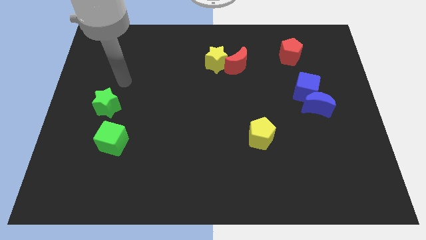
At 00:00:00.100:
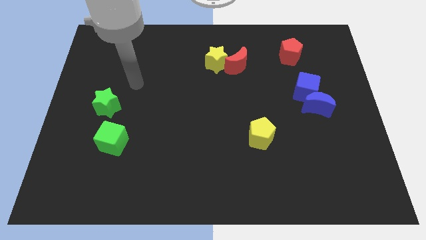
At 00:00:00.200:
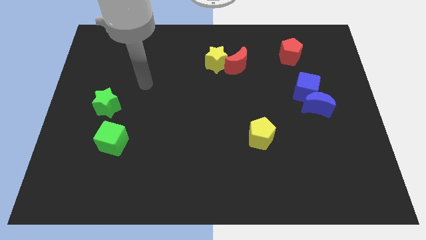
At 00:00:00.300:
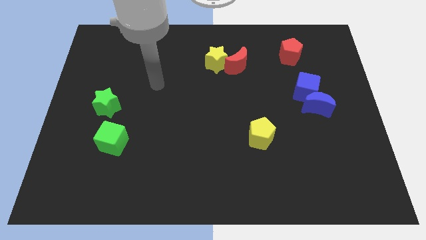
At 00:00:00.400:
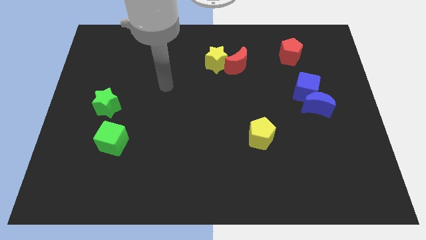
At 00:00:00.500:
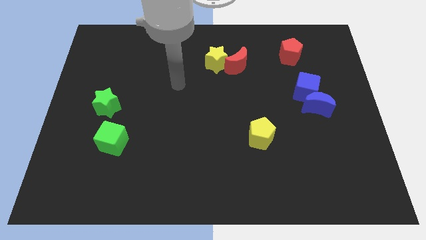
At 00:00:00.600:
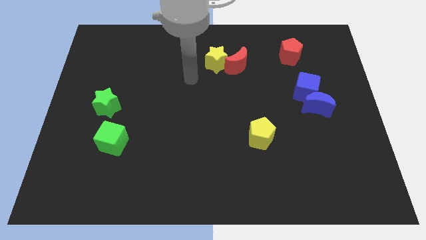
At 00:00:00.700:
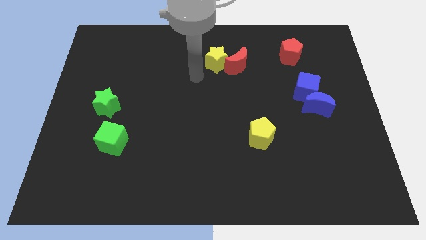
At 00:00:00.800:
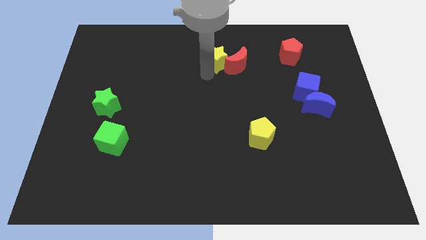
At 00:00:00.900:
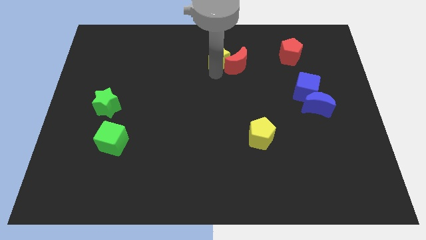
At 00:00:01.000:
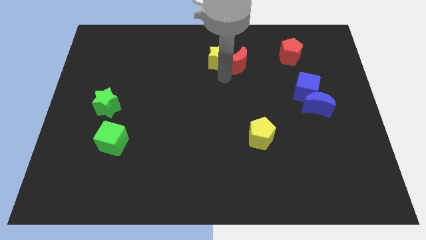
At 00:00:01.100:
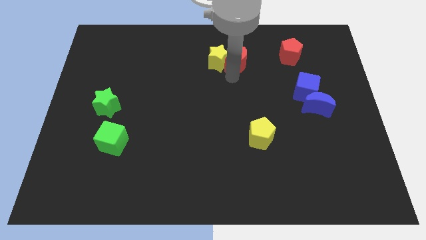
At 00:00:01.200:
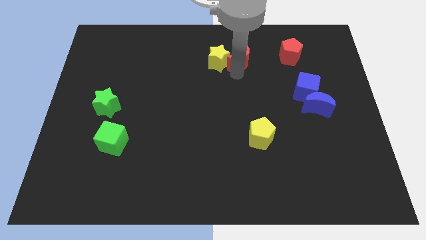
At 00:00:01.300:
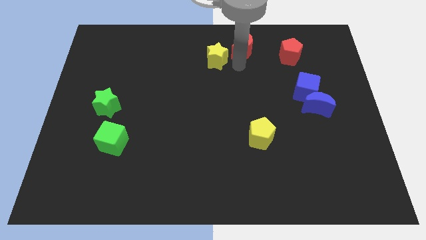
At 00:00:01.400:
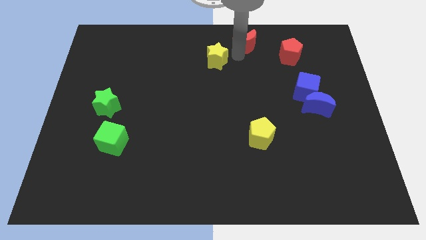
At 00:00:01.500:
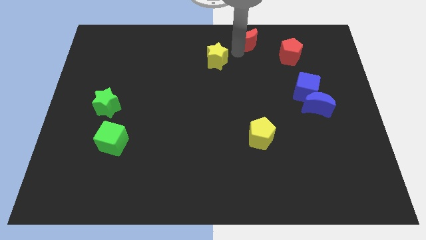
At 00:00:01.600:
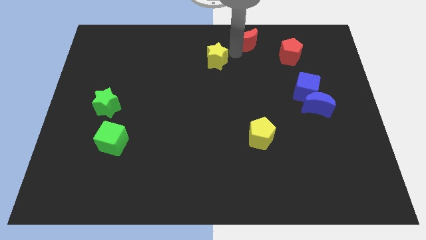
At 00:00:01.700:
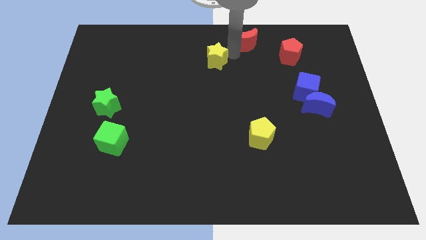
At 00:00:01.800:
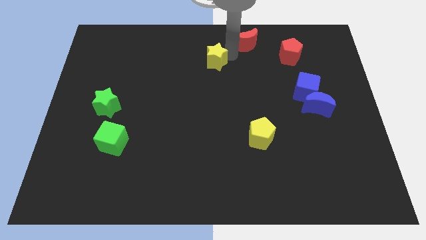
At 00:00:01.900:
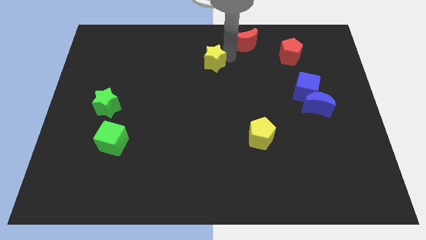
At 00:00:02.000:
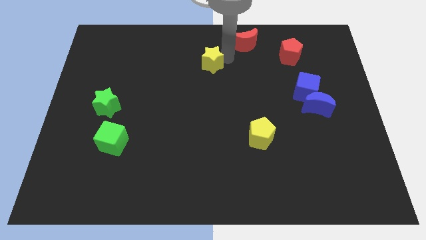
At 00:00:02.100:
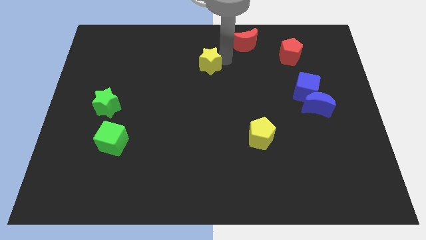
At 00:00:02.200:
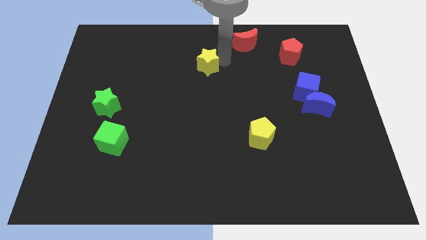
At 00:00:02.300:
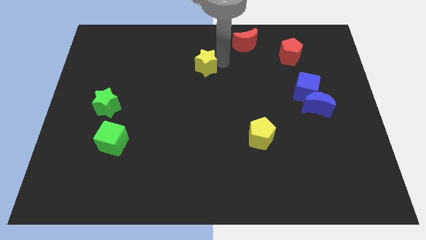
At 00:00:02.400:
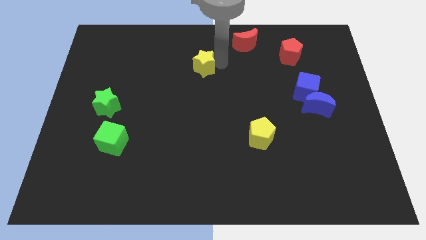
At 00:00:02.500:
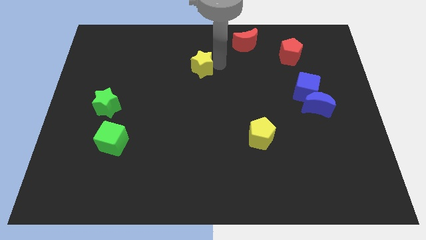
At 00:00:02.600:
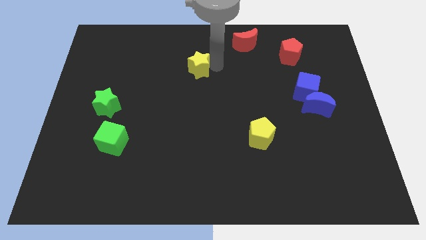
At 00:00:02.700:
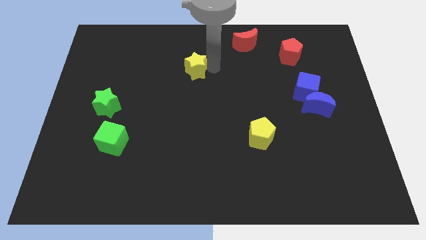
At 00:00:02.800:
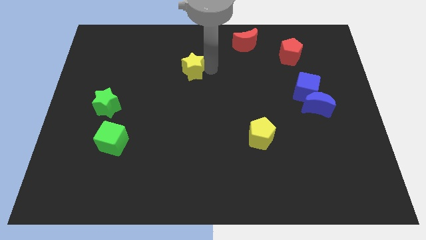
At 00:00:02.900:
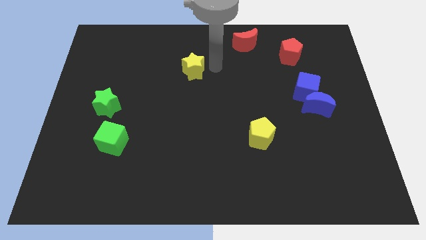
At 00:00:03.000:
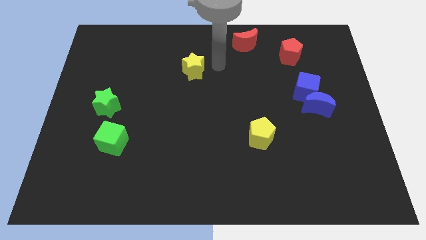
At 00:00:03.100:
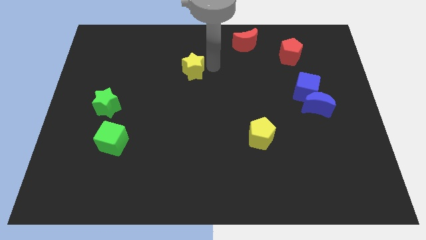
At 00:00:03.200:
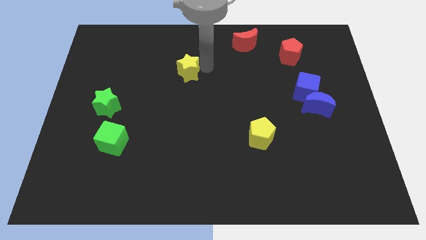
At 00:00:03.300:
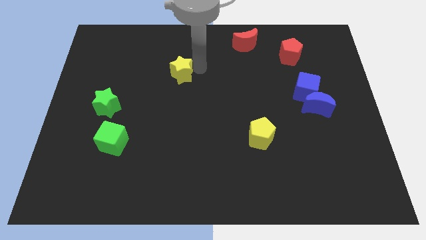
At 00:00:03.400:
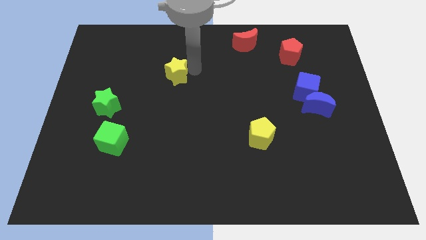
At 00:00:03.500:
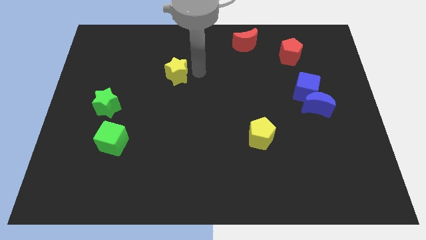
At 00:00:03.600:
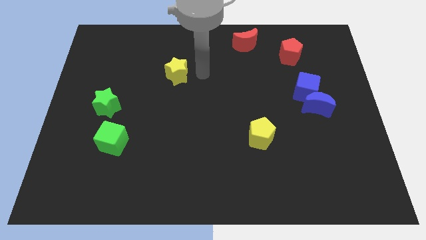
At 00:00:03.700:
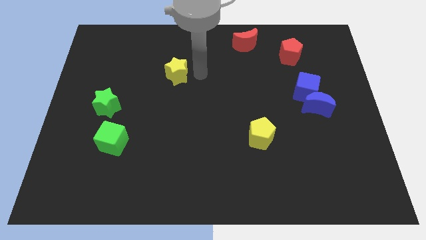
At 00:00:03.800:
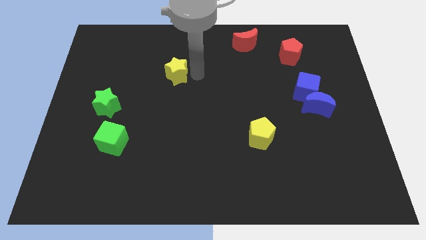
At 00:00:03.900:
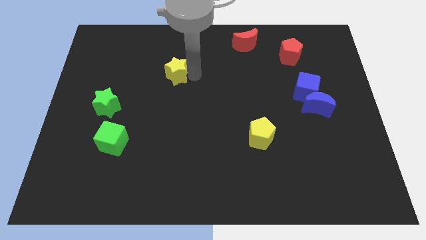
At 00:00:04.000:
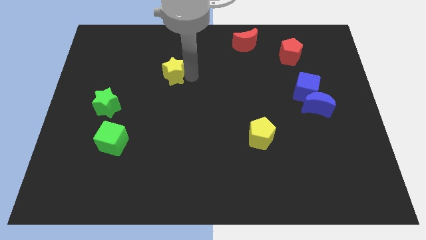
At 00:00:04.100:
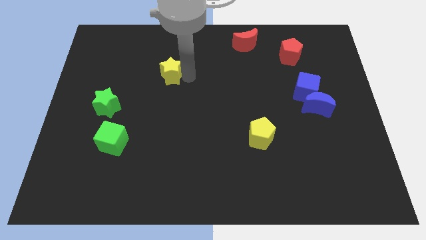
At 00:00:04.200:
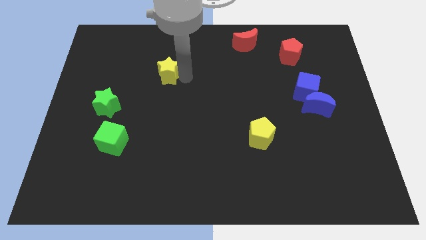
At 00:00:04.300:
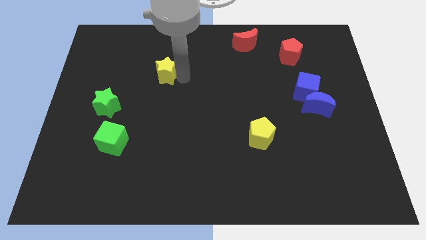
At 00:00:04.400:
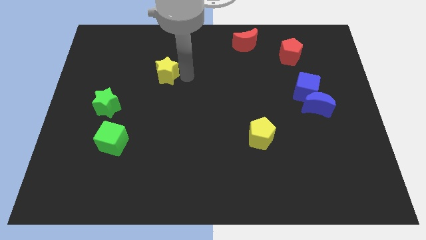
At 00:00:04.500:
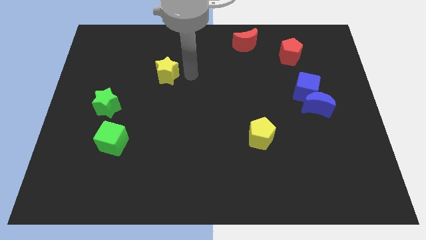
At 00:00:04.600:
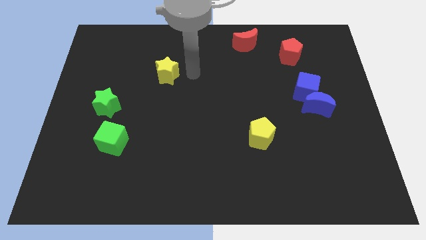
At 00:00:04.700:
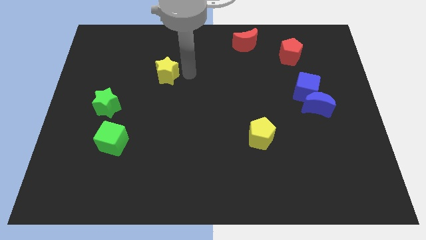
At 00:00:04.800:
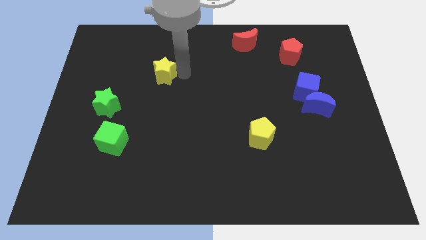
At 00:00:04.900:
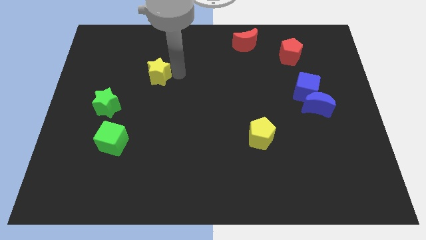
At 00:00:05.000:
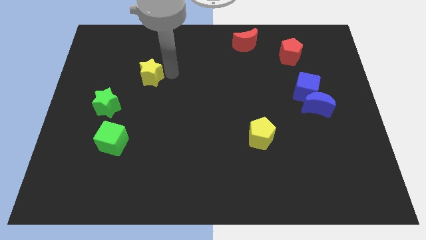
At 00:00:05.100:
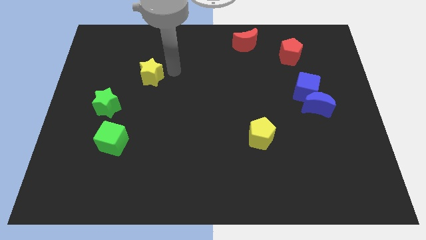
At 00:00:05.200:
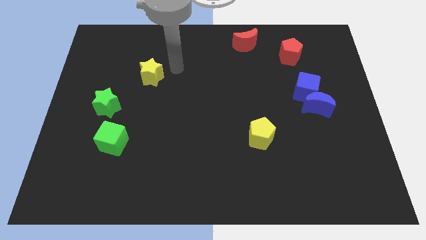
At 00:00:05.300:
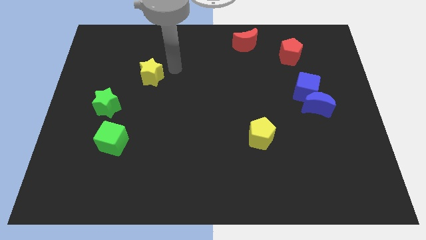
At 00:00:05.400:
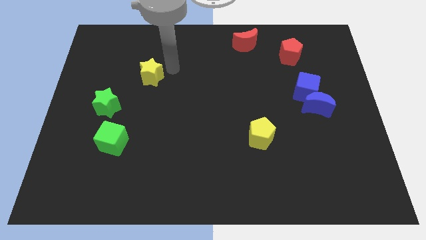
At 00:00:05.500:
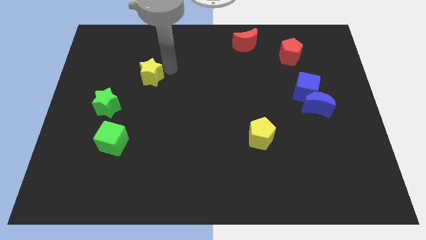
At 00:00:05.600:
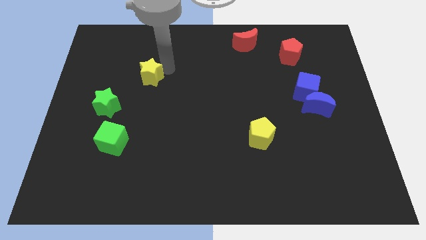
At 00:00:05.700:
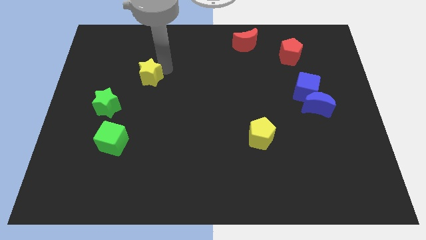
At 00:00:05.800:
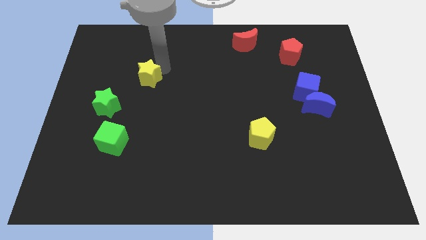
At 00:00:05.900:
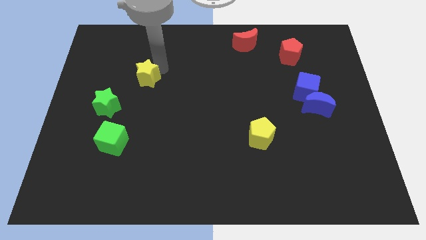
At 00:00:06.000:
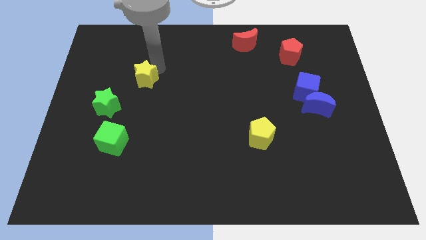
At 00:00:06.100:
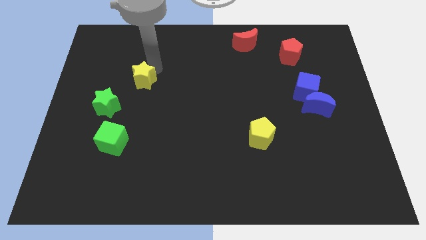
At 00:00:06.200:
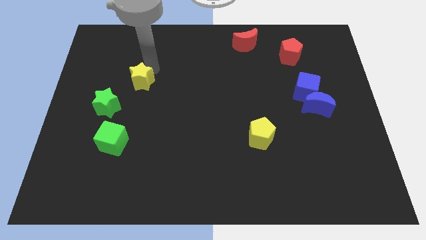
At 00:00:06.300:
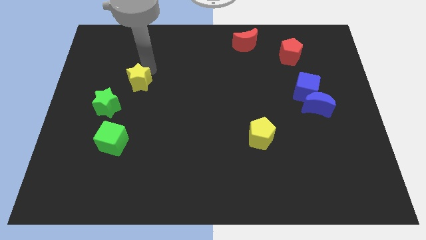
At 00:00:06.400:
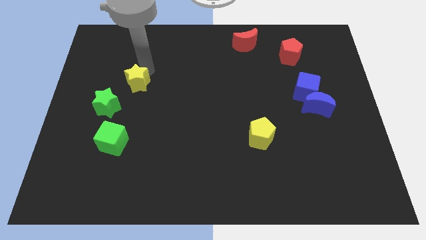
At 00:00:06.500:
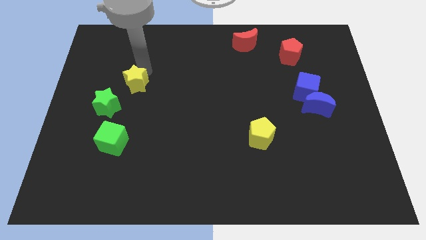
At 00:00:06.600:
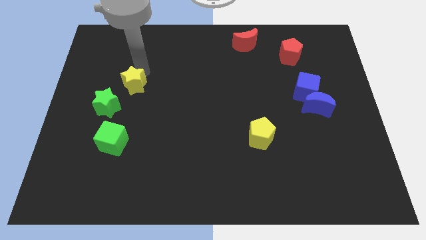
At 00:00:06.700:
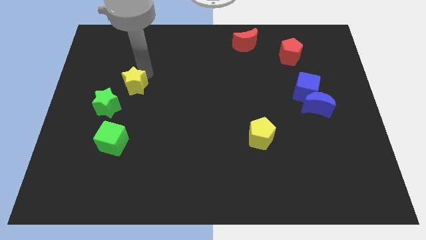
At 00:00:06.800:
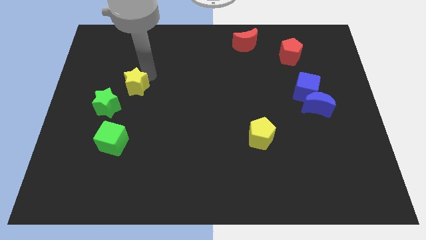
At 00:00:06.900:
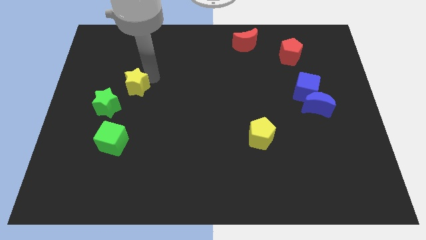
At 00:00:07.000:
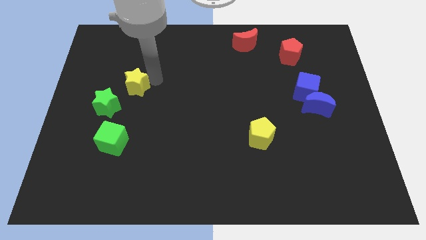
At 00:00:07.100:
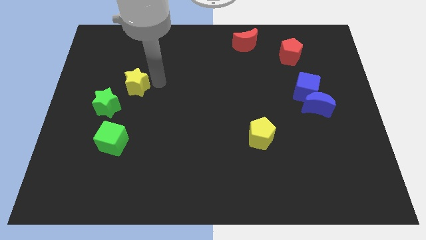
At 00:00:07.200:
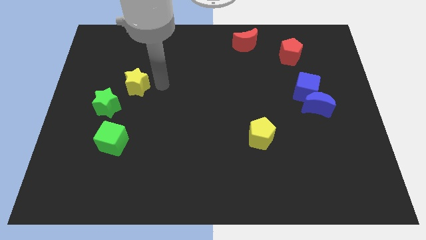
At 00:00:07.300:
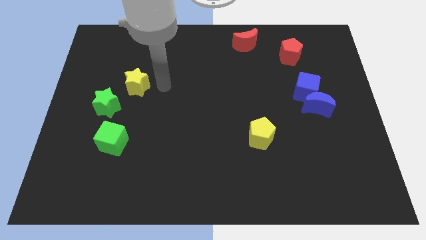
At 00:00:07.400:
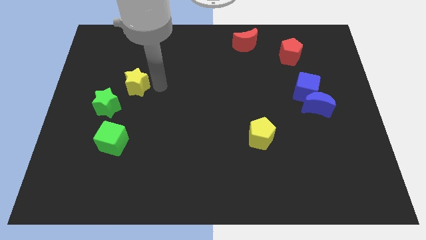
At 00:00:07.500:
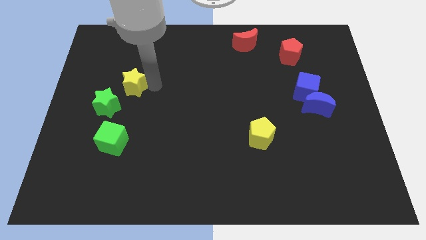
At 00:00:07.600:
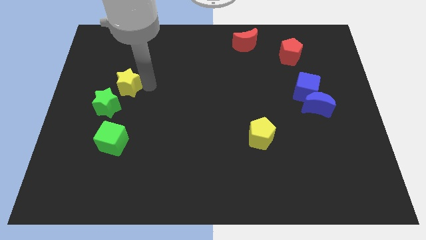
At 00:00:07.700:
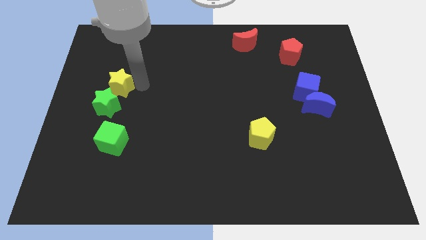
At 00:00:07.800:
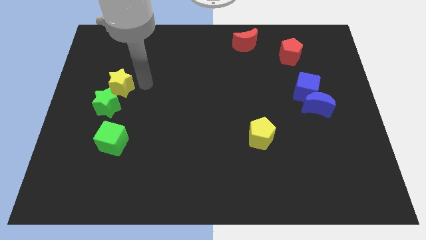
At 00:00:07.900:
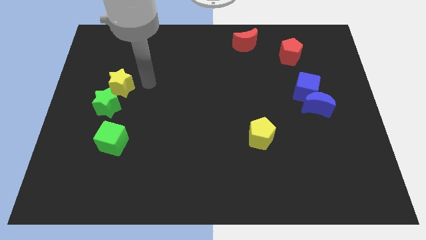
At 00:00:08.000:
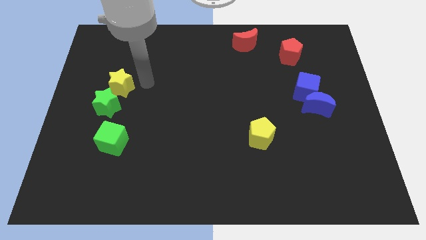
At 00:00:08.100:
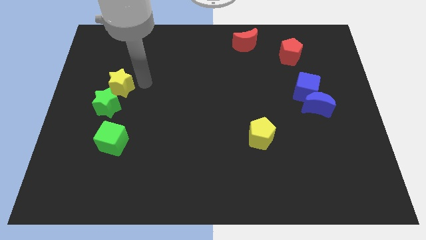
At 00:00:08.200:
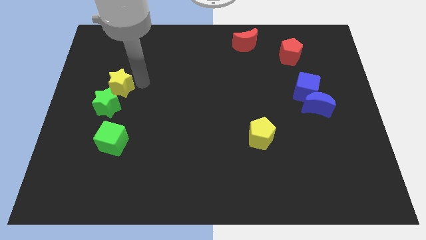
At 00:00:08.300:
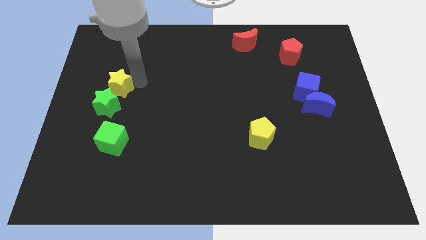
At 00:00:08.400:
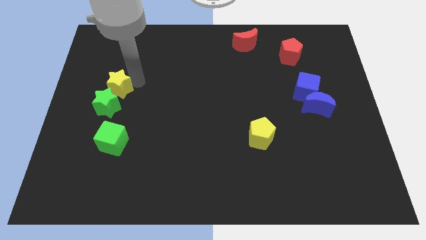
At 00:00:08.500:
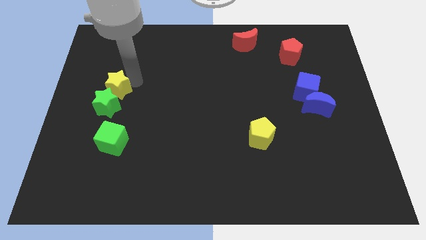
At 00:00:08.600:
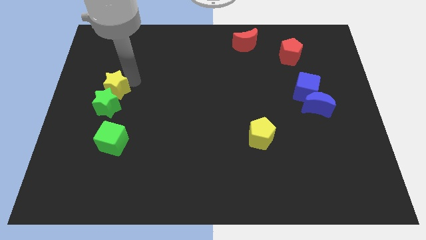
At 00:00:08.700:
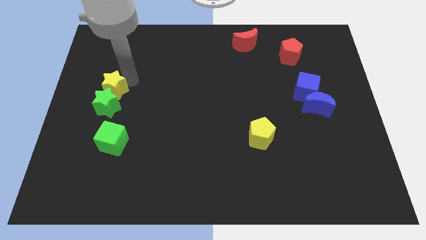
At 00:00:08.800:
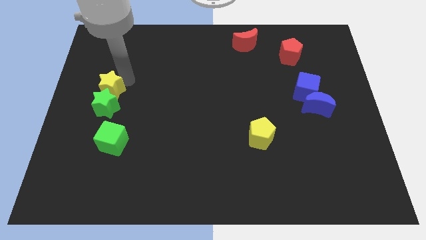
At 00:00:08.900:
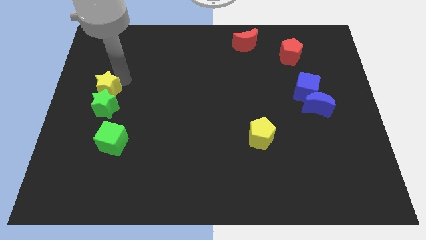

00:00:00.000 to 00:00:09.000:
slide the yellow star to the left side of the board
